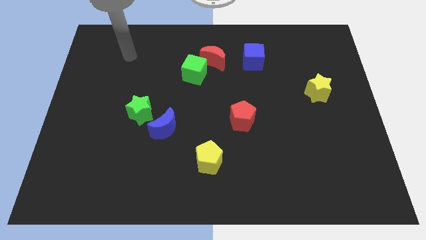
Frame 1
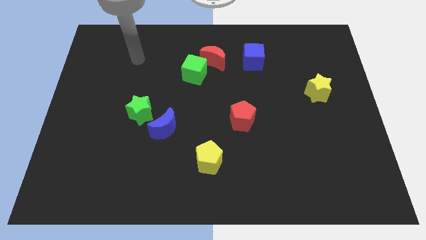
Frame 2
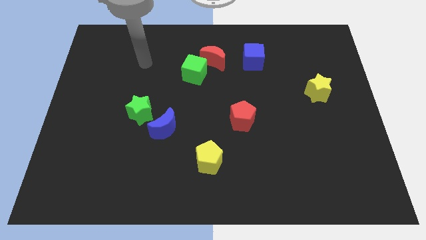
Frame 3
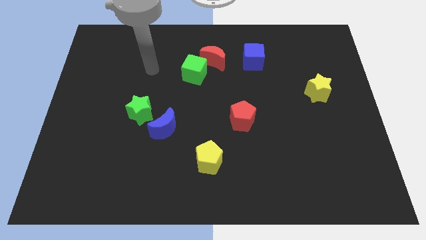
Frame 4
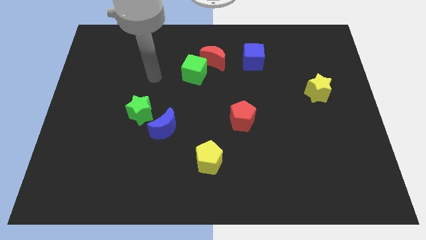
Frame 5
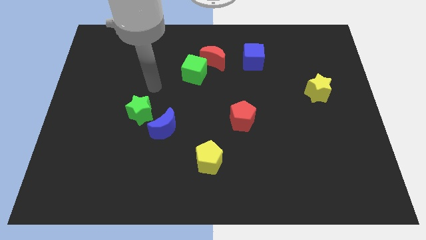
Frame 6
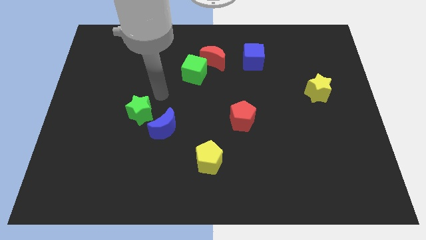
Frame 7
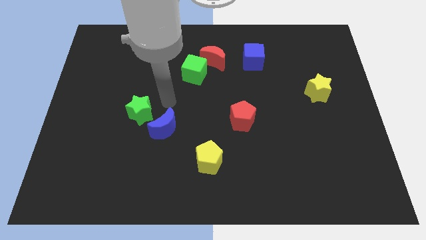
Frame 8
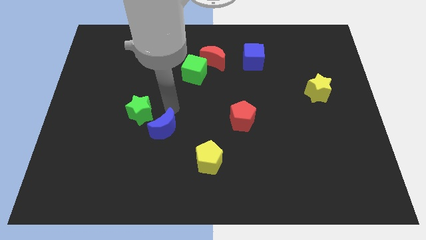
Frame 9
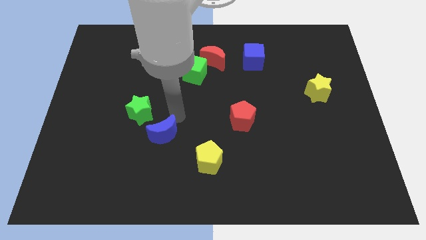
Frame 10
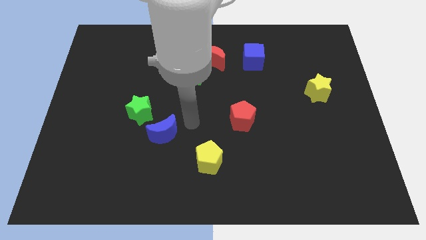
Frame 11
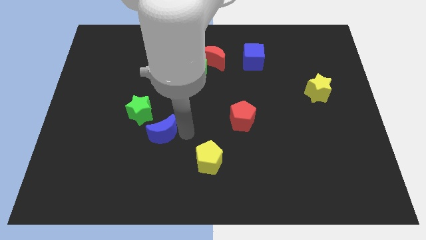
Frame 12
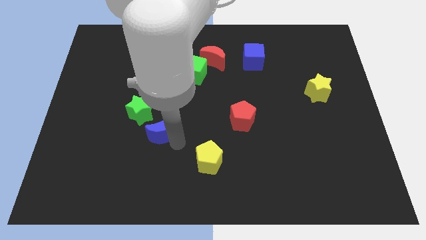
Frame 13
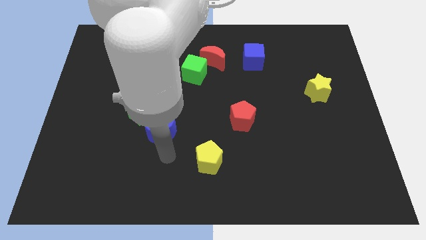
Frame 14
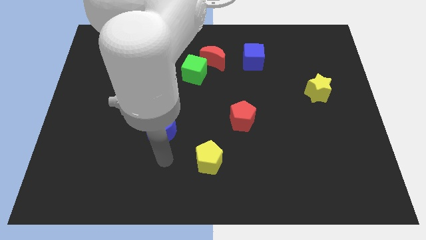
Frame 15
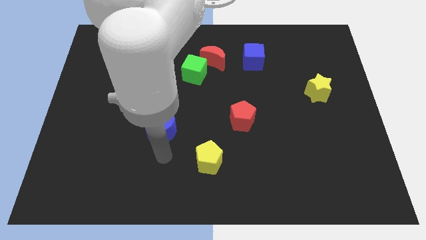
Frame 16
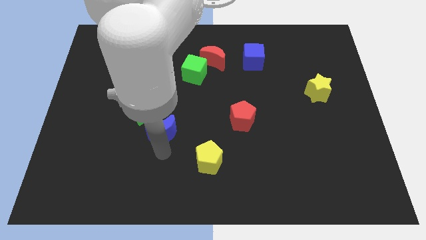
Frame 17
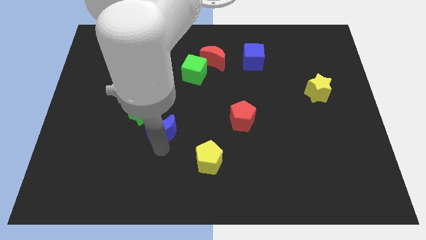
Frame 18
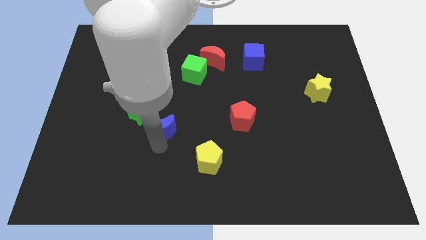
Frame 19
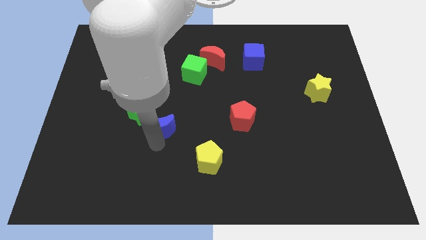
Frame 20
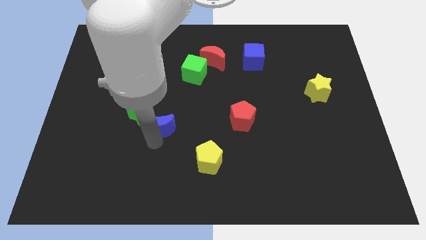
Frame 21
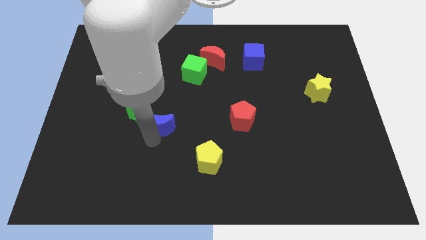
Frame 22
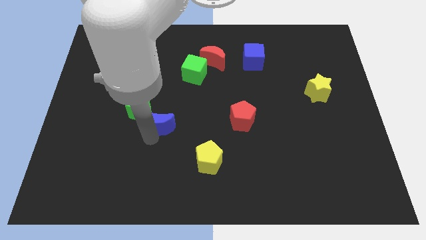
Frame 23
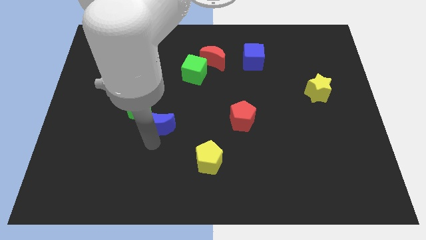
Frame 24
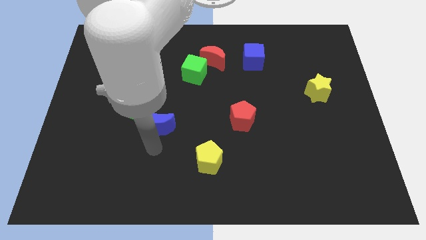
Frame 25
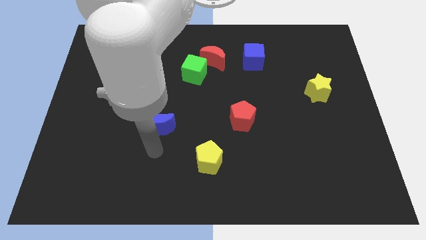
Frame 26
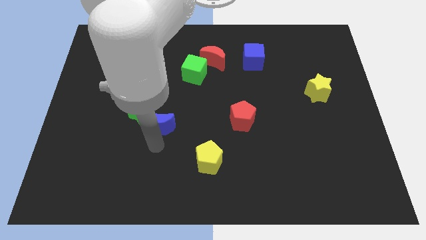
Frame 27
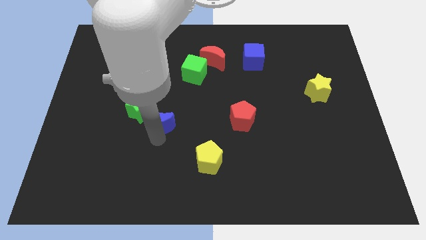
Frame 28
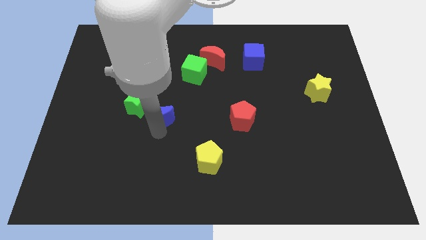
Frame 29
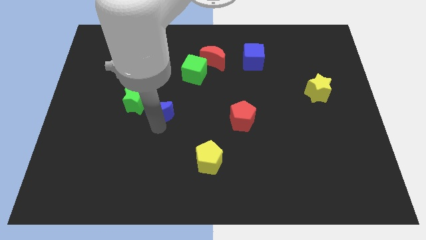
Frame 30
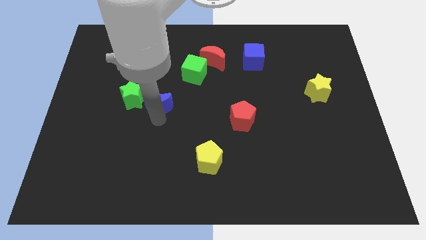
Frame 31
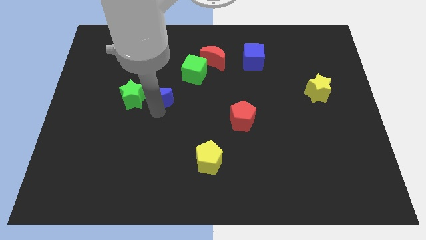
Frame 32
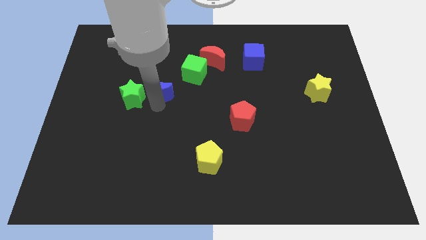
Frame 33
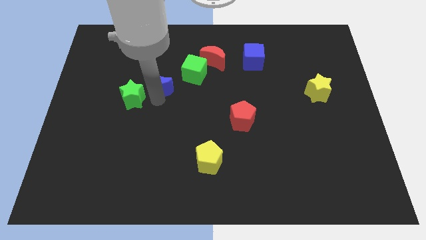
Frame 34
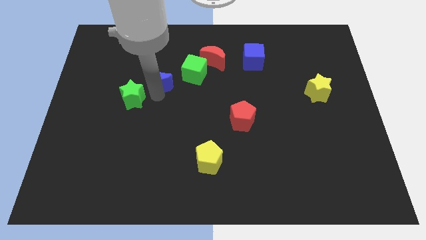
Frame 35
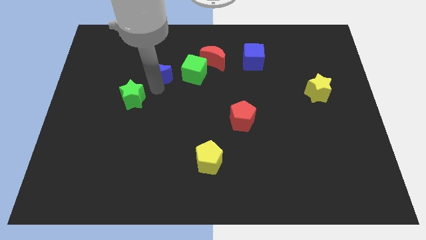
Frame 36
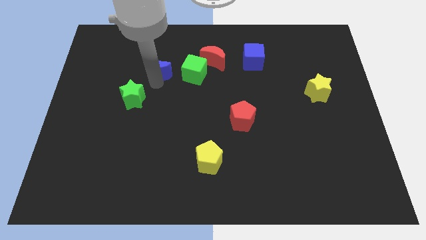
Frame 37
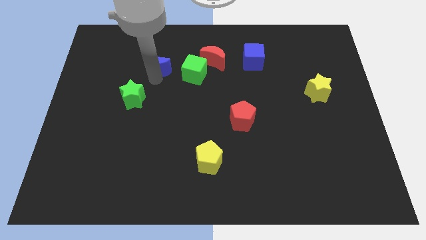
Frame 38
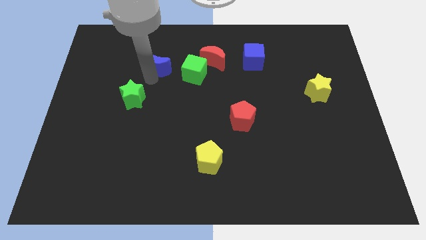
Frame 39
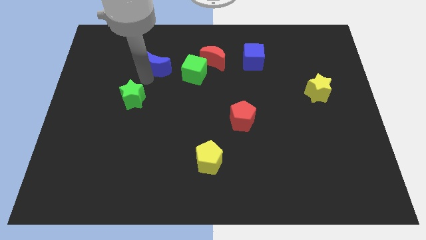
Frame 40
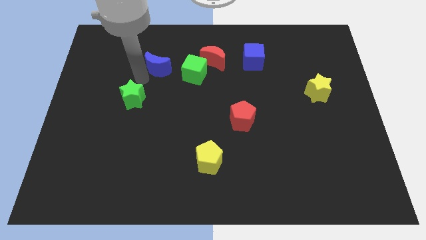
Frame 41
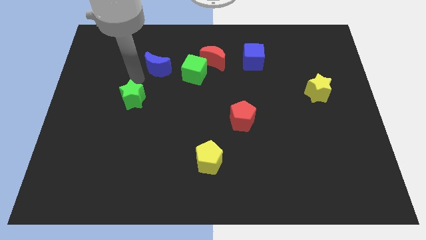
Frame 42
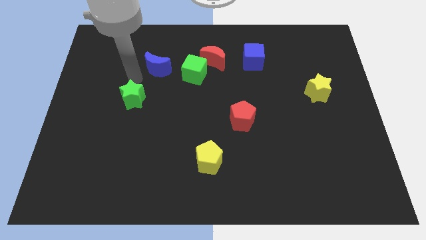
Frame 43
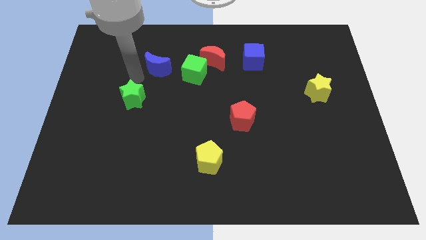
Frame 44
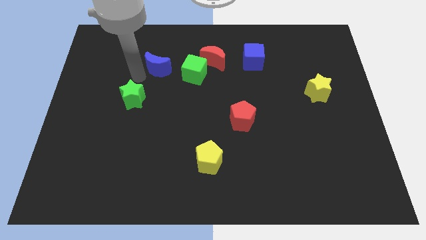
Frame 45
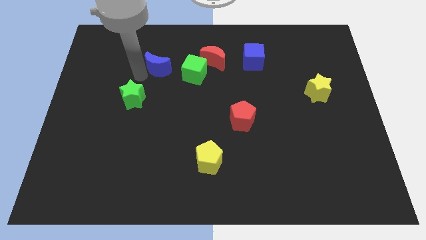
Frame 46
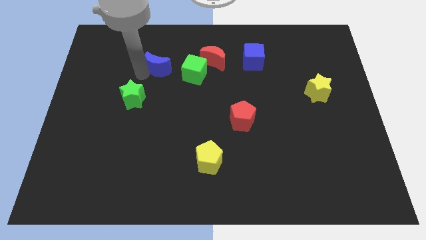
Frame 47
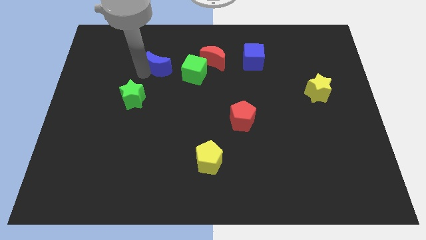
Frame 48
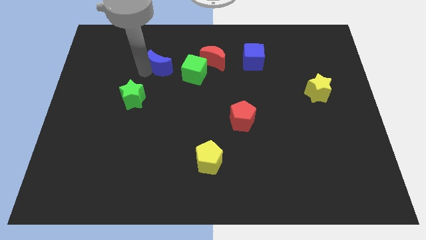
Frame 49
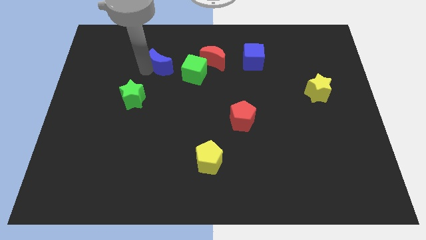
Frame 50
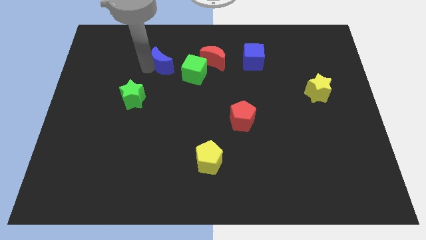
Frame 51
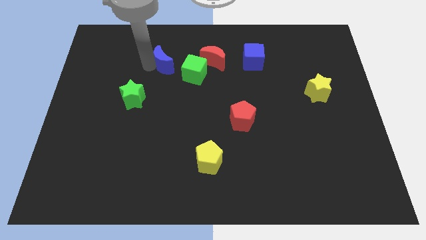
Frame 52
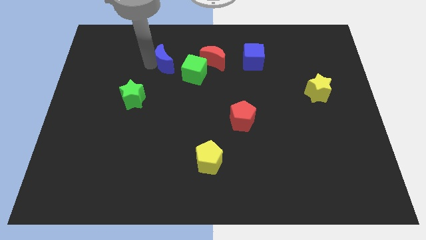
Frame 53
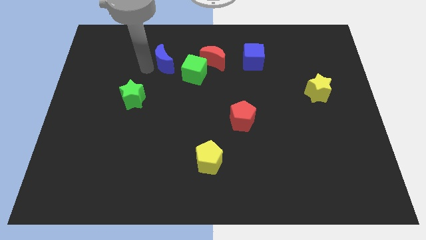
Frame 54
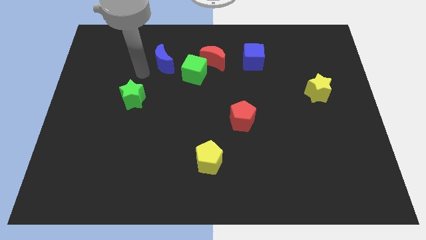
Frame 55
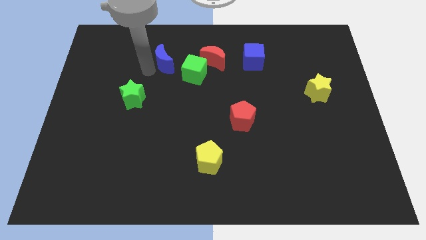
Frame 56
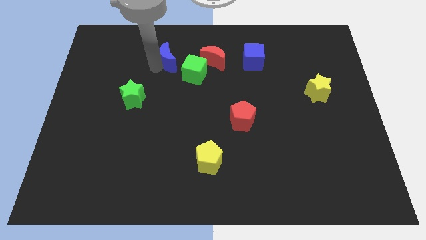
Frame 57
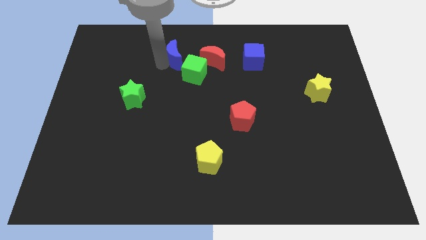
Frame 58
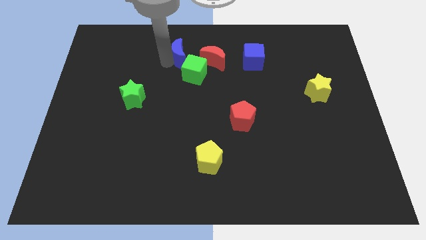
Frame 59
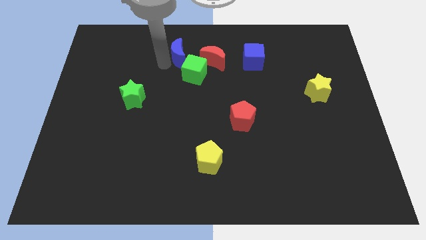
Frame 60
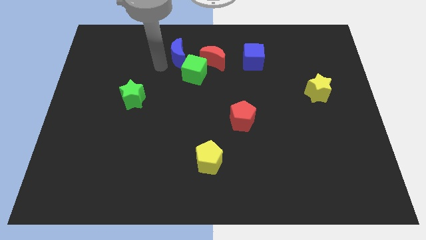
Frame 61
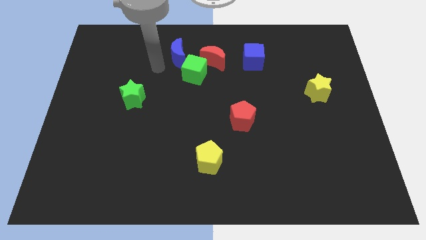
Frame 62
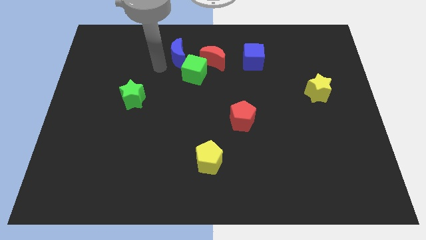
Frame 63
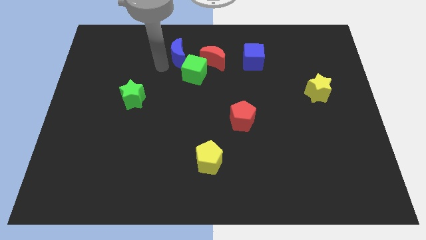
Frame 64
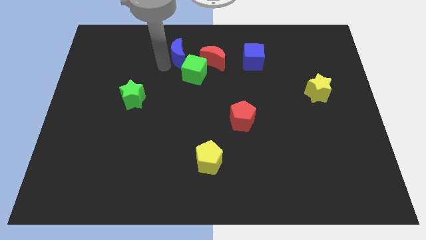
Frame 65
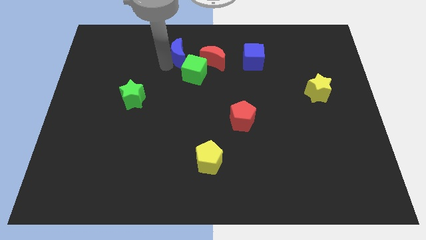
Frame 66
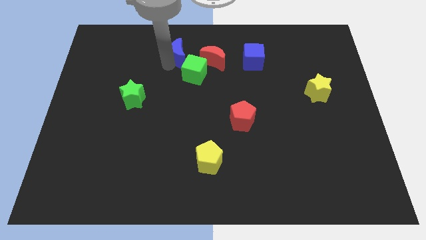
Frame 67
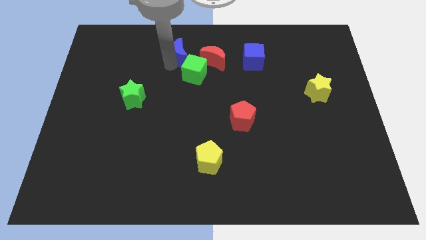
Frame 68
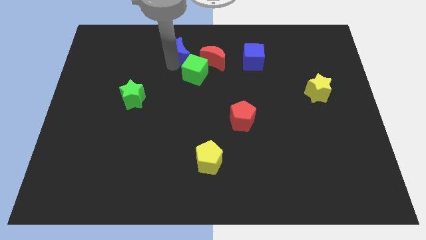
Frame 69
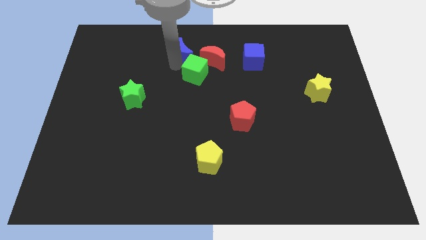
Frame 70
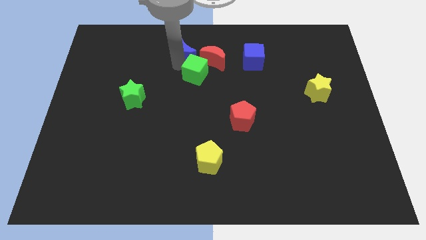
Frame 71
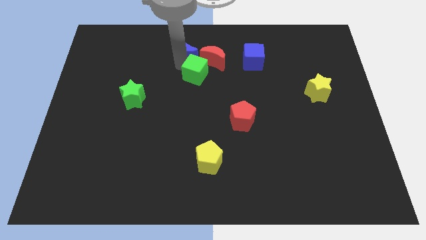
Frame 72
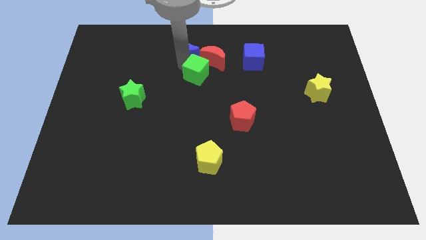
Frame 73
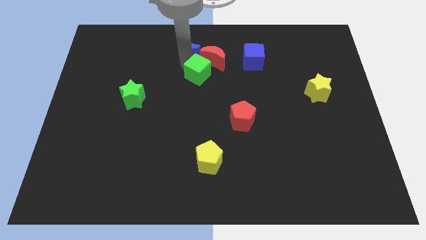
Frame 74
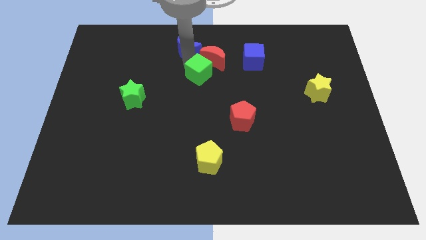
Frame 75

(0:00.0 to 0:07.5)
put the blue moon to the top

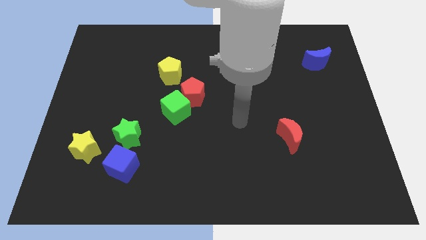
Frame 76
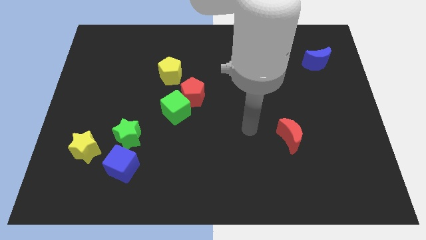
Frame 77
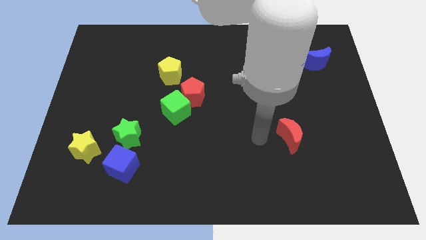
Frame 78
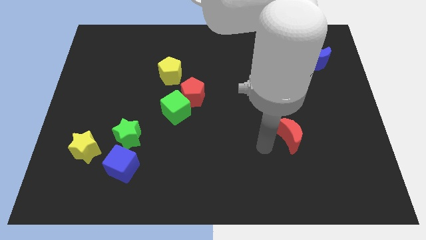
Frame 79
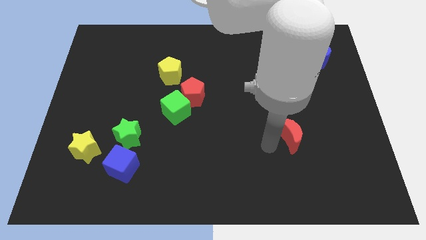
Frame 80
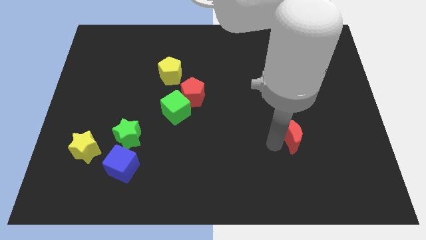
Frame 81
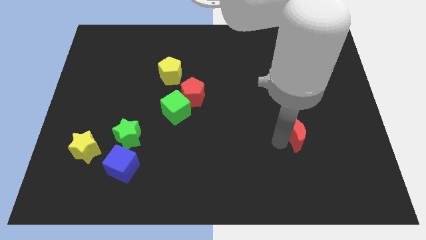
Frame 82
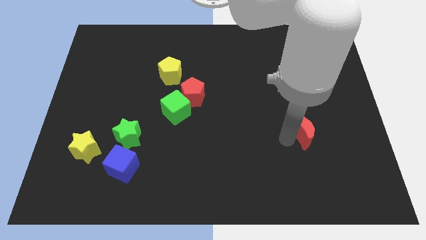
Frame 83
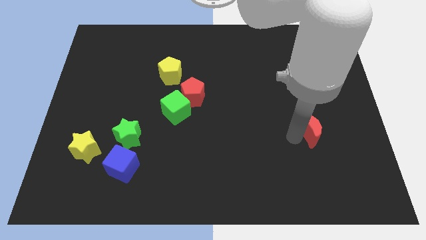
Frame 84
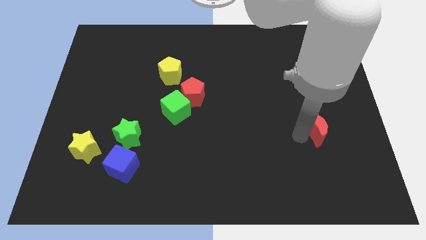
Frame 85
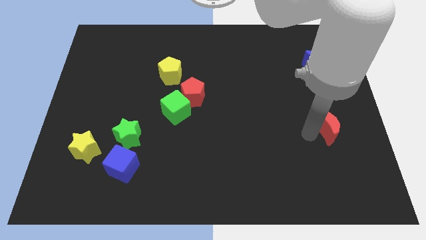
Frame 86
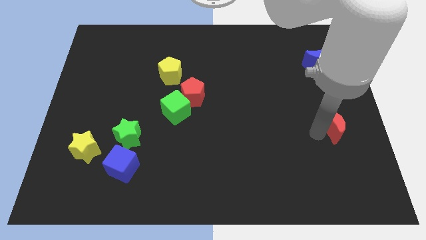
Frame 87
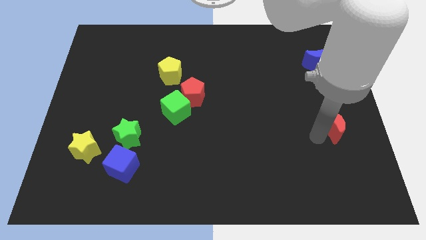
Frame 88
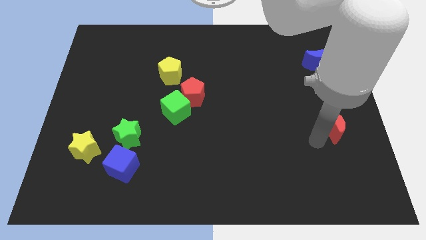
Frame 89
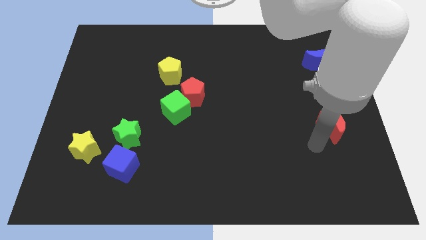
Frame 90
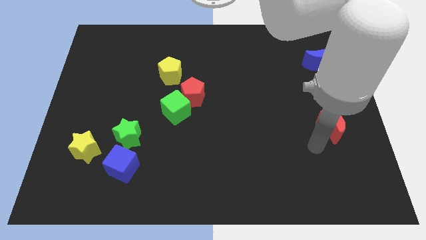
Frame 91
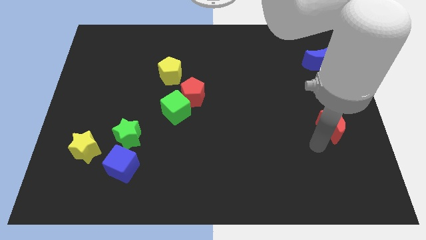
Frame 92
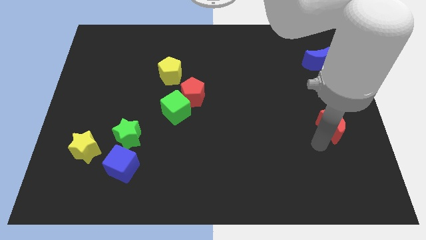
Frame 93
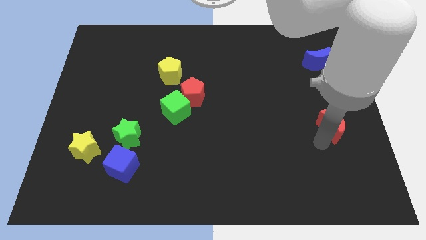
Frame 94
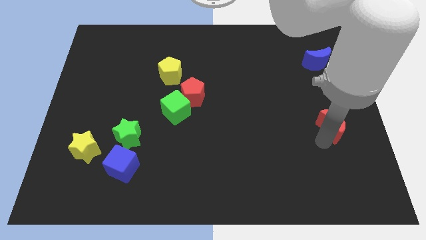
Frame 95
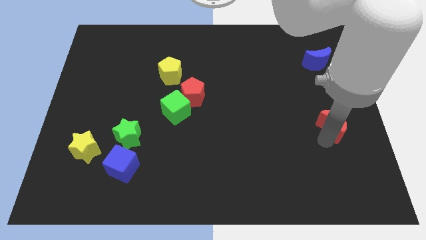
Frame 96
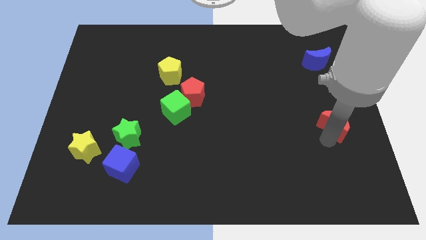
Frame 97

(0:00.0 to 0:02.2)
move the red moon to the right side of the board
